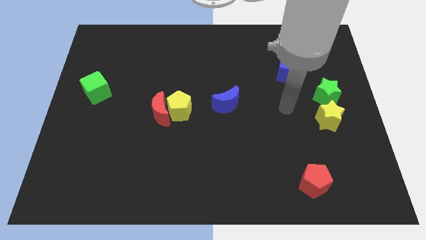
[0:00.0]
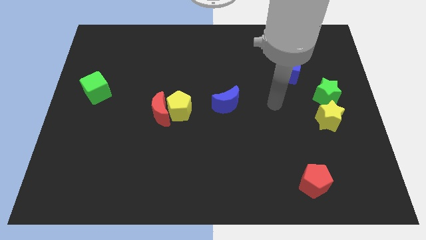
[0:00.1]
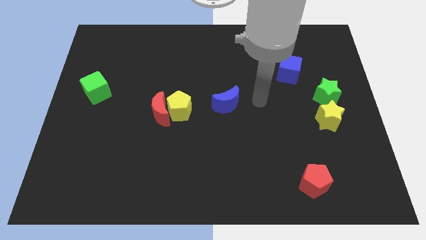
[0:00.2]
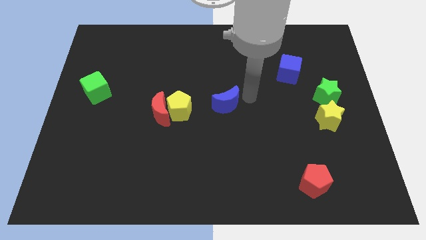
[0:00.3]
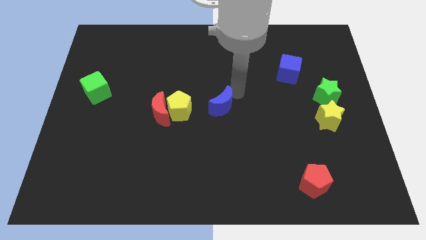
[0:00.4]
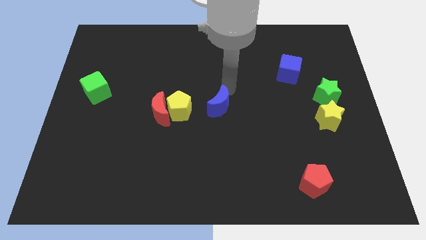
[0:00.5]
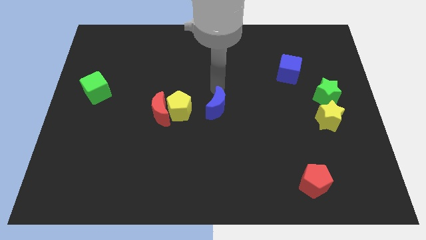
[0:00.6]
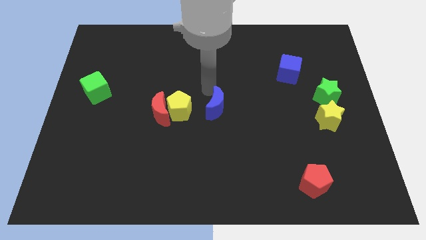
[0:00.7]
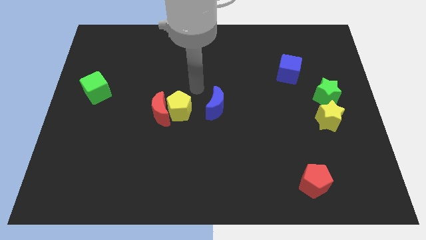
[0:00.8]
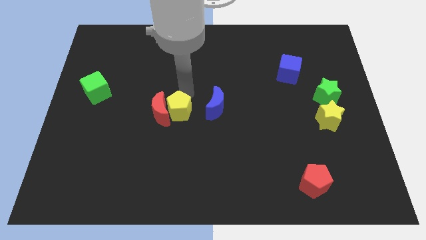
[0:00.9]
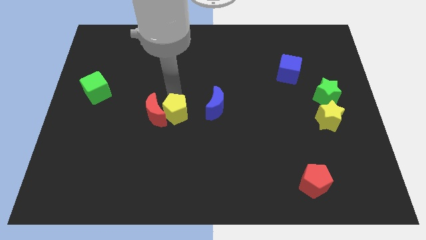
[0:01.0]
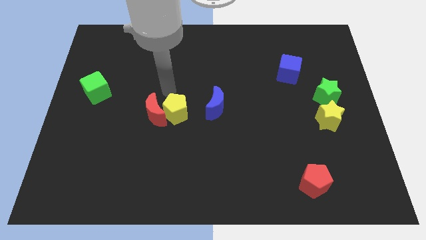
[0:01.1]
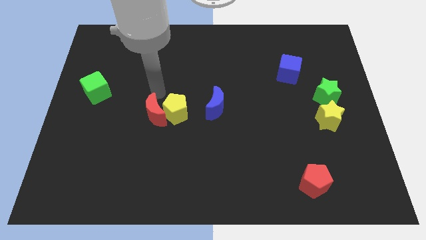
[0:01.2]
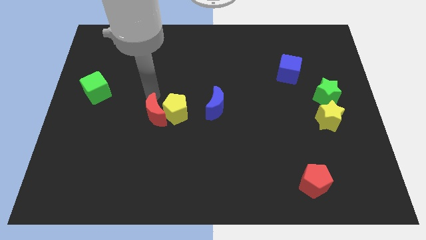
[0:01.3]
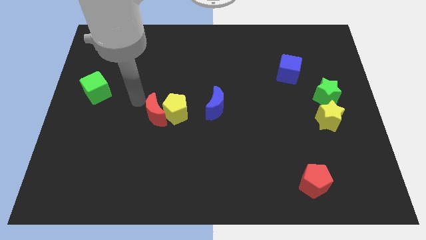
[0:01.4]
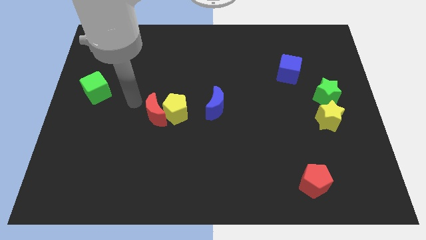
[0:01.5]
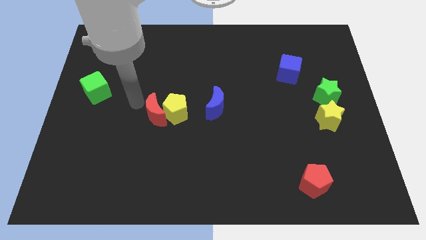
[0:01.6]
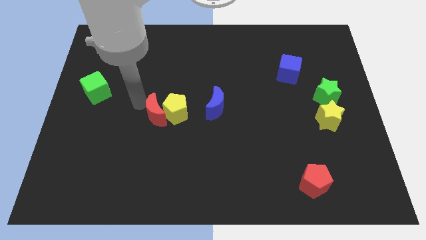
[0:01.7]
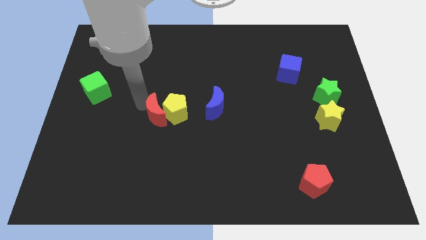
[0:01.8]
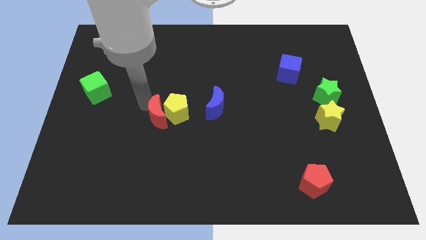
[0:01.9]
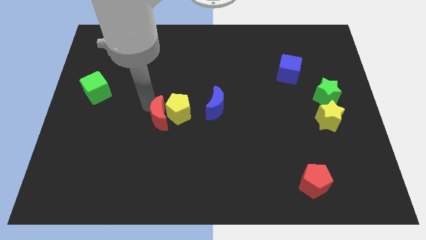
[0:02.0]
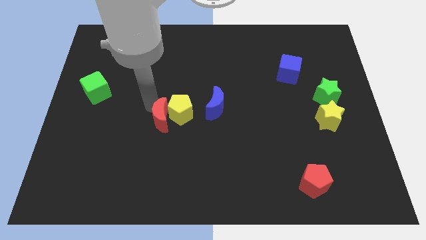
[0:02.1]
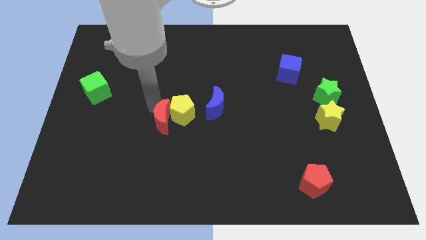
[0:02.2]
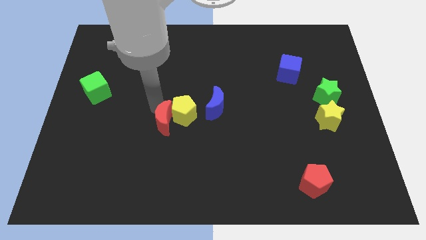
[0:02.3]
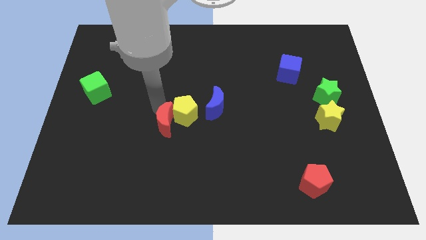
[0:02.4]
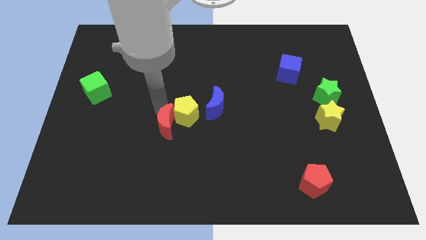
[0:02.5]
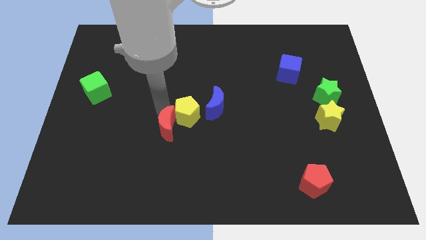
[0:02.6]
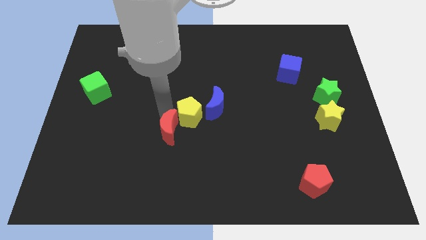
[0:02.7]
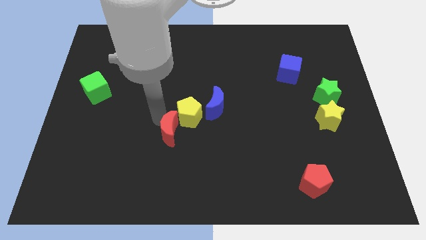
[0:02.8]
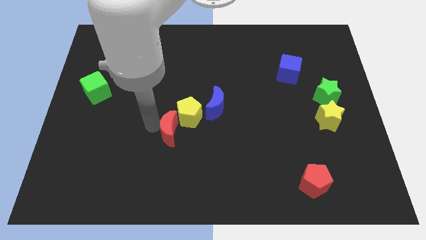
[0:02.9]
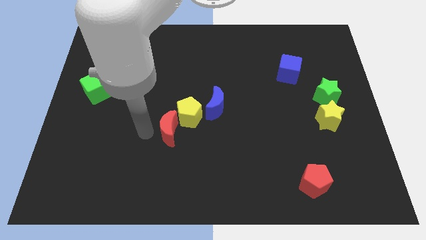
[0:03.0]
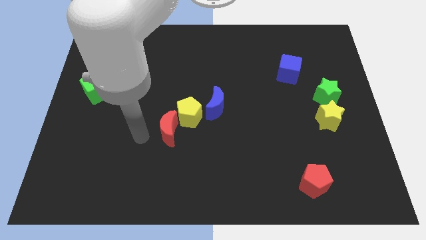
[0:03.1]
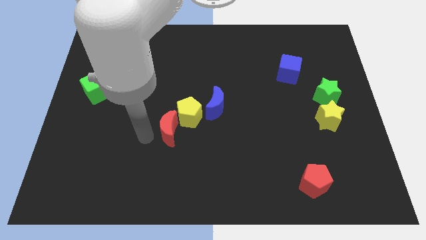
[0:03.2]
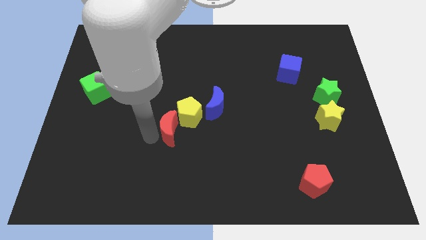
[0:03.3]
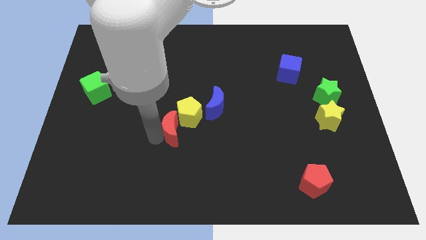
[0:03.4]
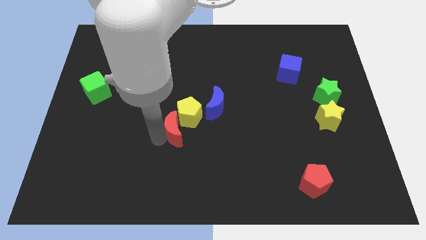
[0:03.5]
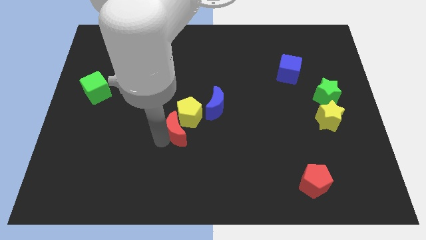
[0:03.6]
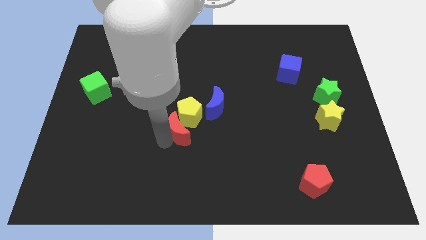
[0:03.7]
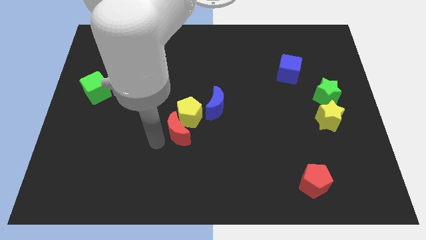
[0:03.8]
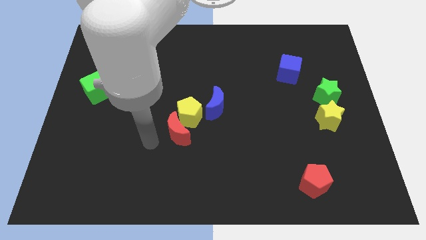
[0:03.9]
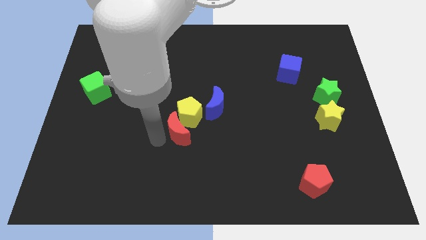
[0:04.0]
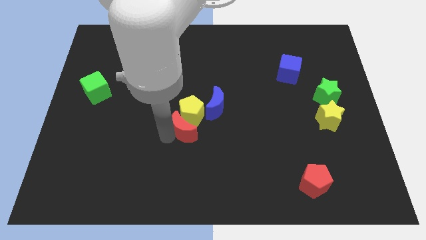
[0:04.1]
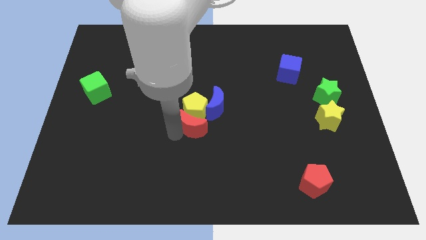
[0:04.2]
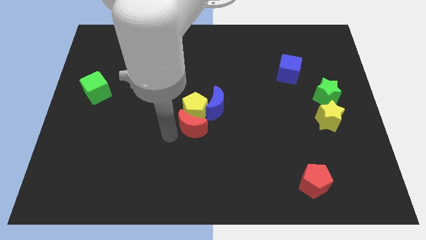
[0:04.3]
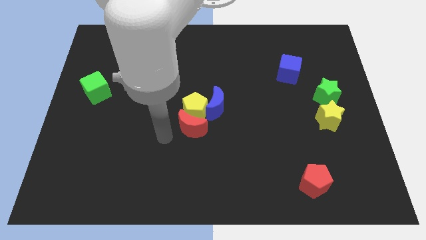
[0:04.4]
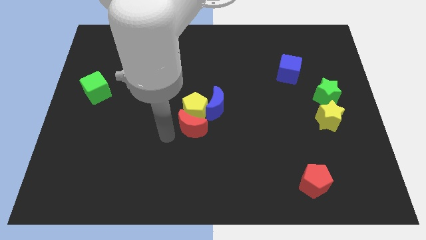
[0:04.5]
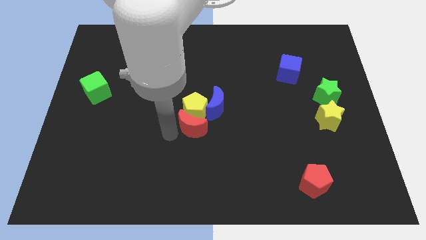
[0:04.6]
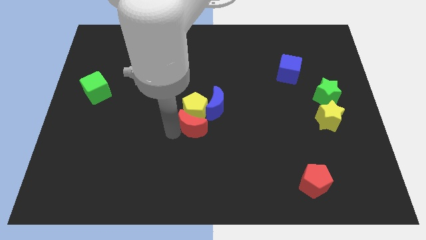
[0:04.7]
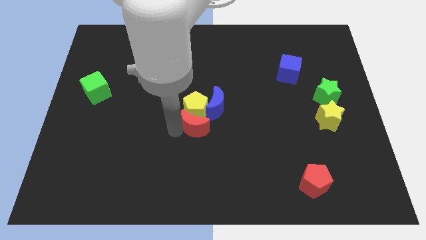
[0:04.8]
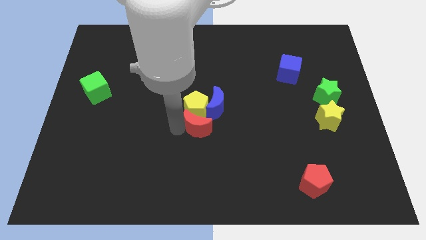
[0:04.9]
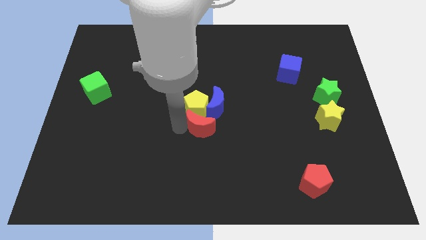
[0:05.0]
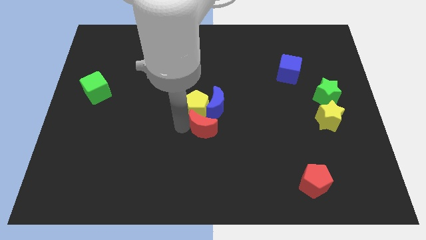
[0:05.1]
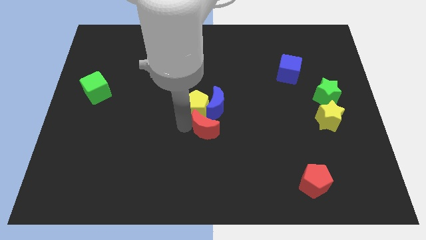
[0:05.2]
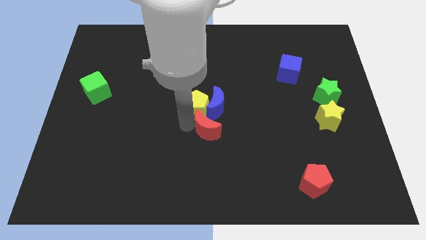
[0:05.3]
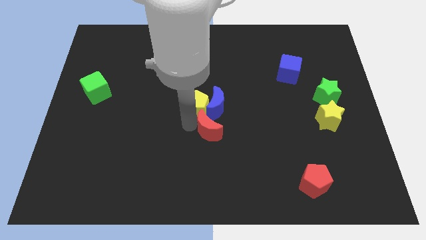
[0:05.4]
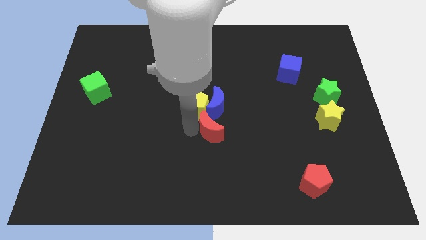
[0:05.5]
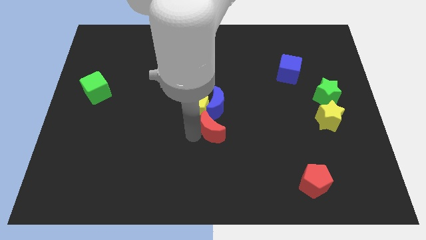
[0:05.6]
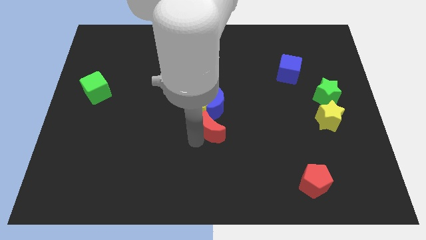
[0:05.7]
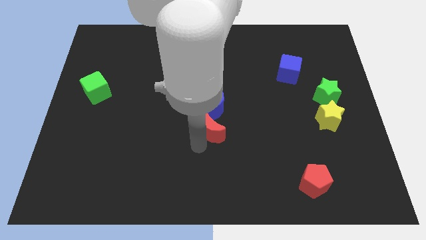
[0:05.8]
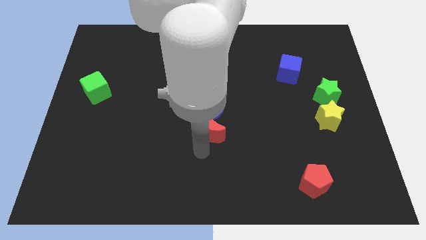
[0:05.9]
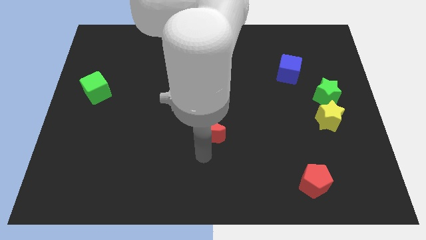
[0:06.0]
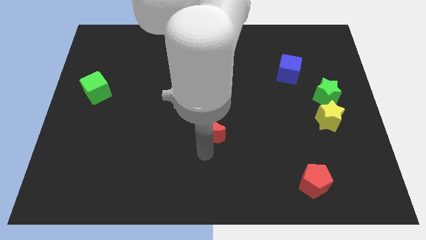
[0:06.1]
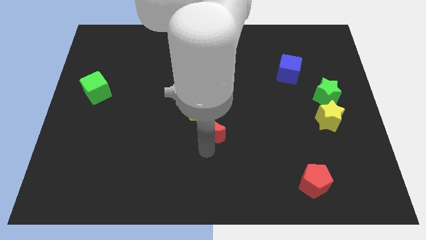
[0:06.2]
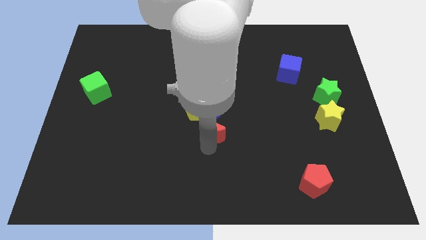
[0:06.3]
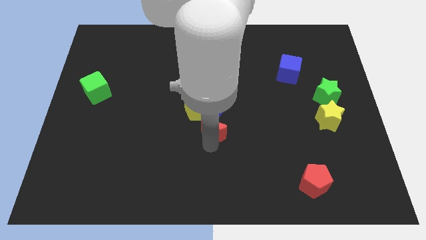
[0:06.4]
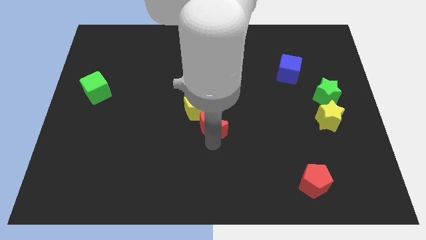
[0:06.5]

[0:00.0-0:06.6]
slide the red moon to the blue moon

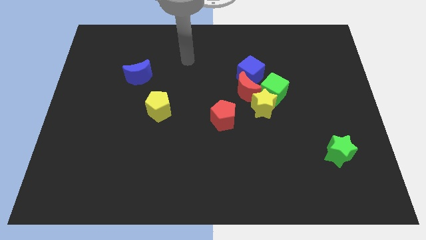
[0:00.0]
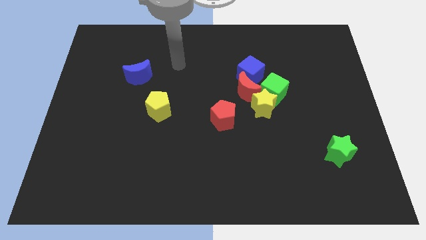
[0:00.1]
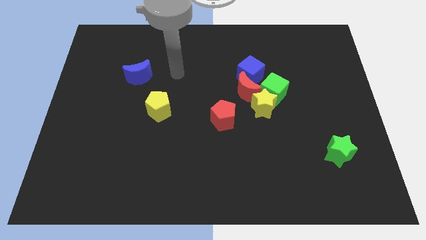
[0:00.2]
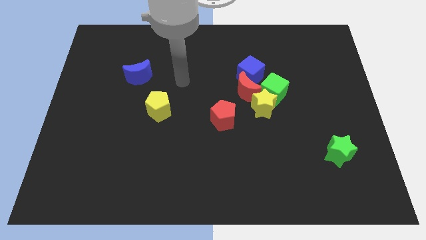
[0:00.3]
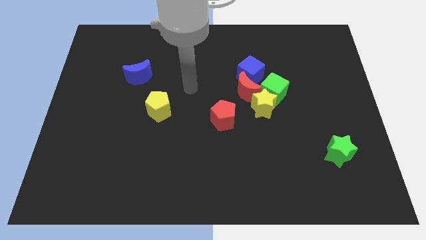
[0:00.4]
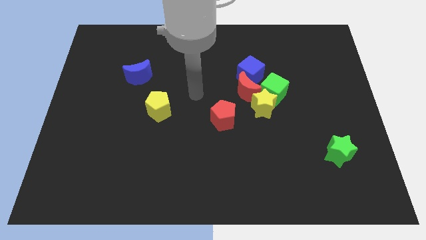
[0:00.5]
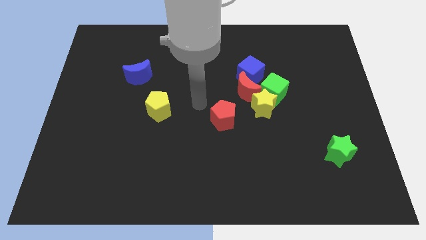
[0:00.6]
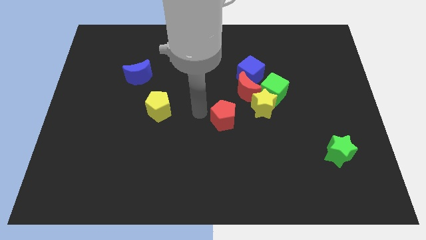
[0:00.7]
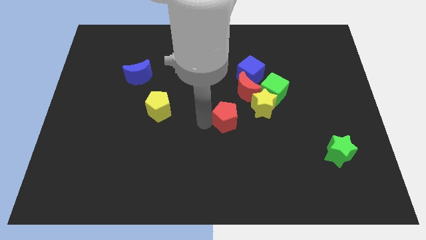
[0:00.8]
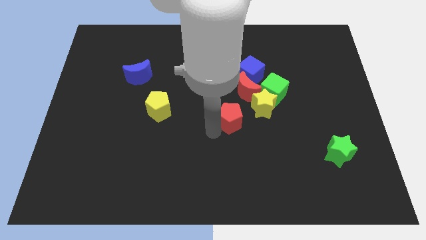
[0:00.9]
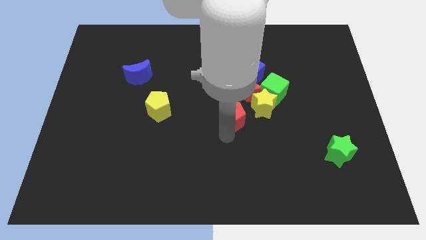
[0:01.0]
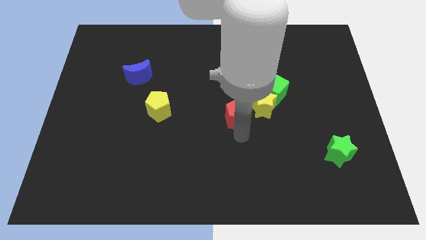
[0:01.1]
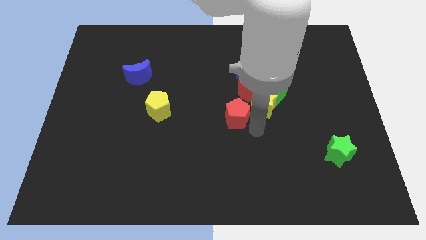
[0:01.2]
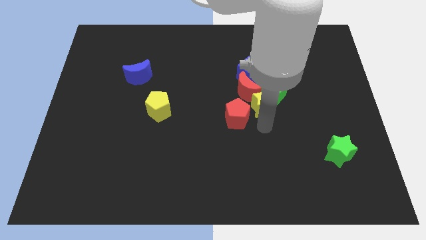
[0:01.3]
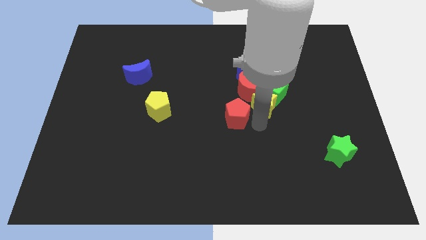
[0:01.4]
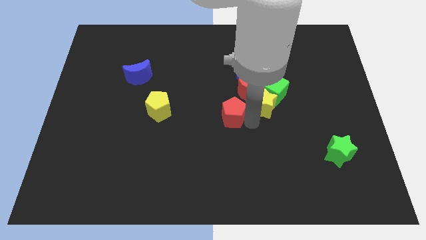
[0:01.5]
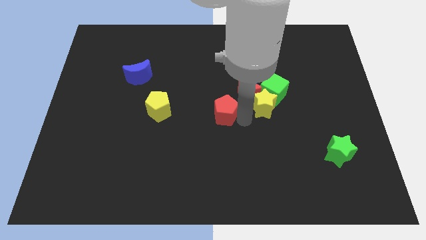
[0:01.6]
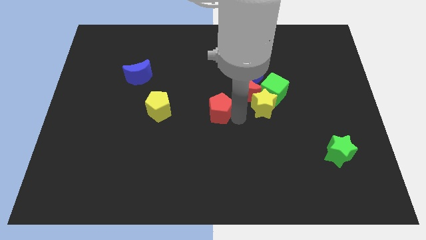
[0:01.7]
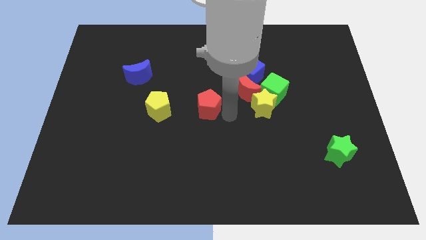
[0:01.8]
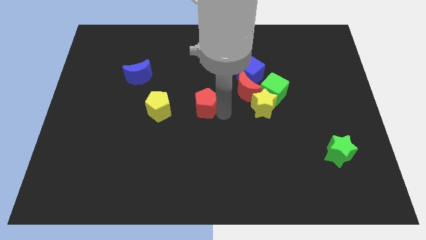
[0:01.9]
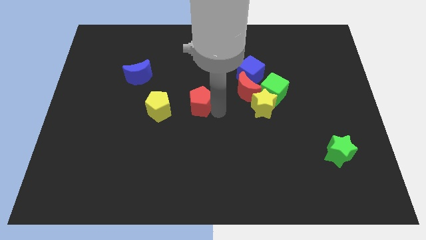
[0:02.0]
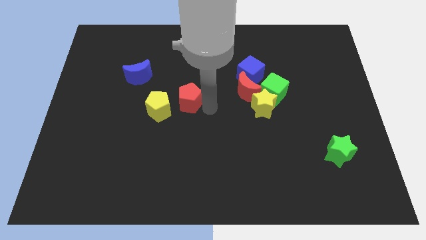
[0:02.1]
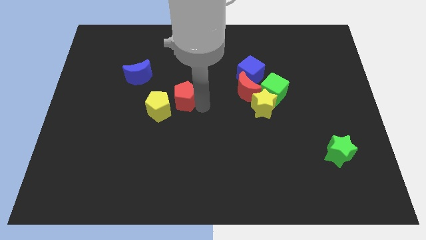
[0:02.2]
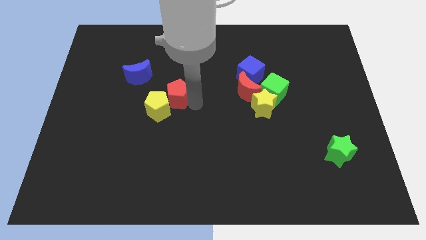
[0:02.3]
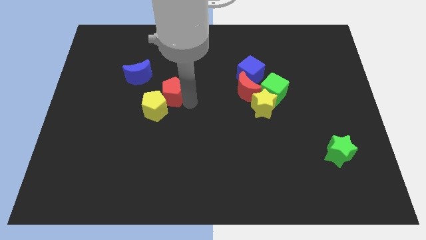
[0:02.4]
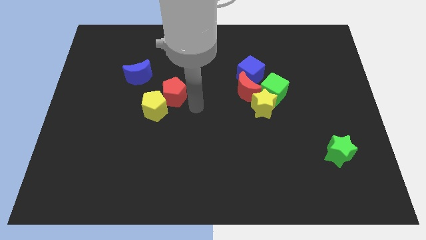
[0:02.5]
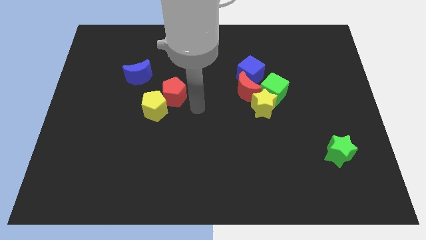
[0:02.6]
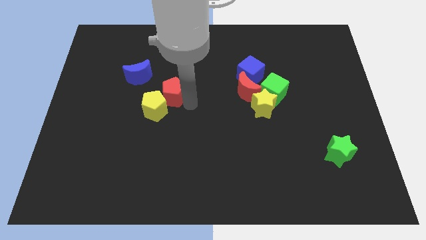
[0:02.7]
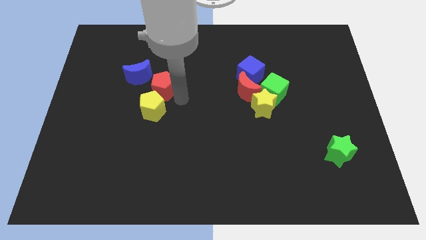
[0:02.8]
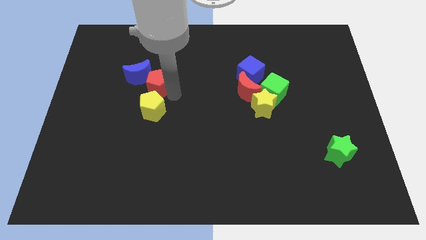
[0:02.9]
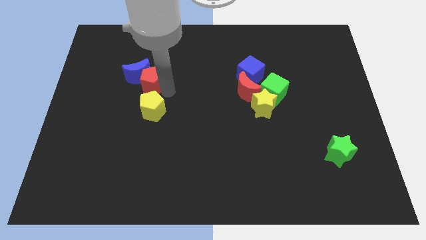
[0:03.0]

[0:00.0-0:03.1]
put the red pentagon close to the blue moon
